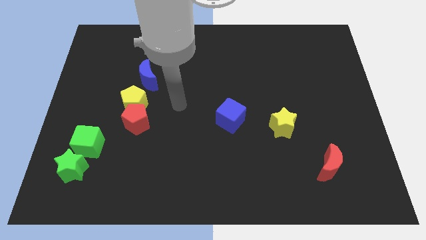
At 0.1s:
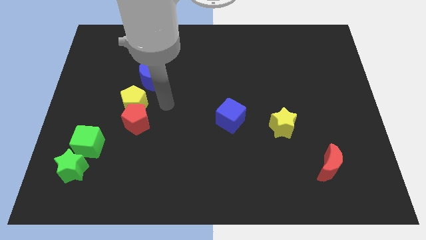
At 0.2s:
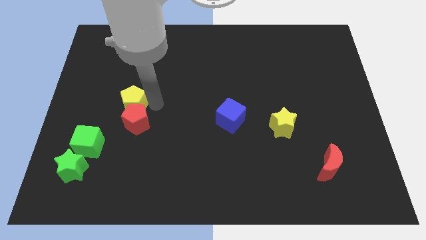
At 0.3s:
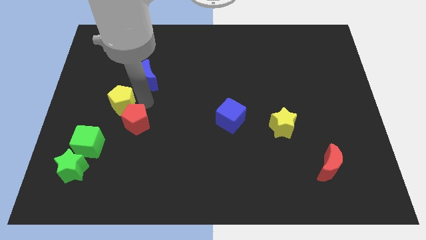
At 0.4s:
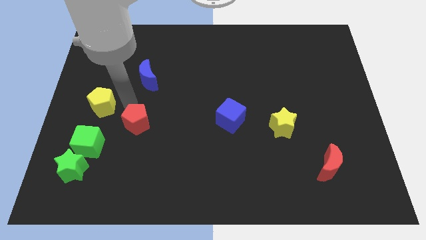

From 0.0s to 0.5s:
separate the red pentagon from the yellow pentagon

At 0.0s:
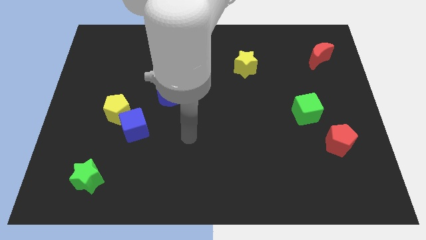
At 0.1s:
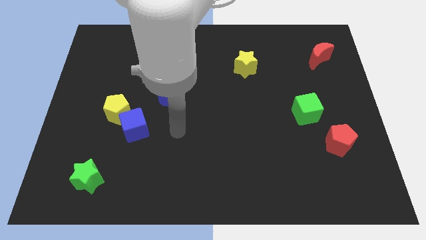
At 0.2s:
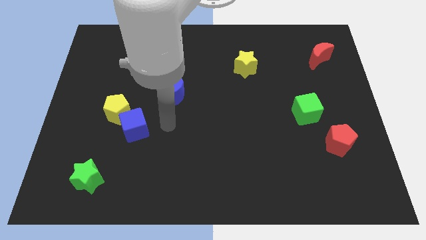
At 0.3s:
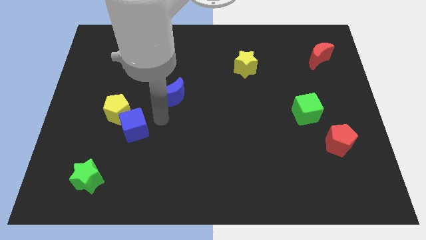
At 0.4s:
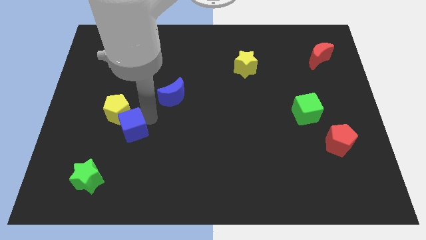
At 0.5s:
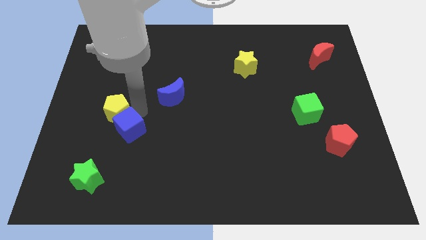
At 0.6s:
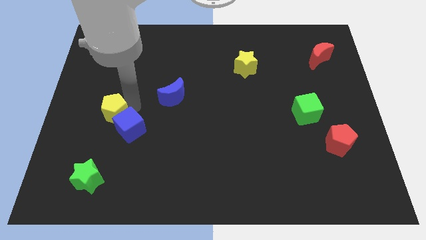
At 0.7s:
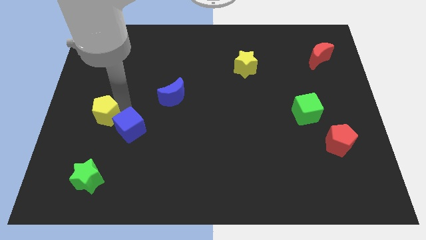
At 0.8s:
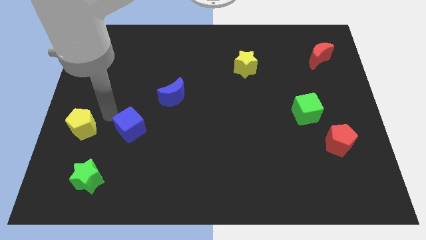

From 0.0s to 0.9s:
move the blue cube away from the yellow pentagon

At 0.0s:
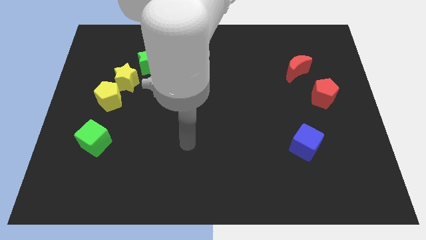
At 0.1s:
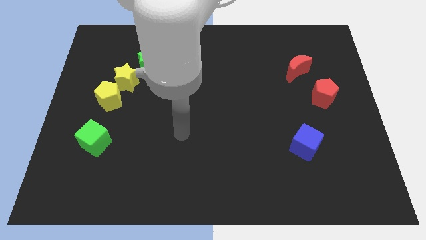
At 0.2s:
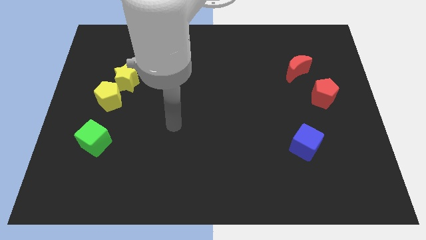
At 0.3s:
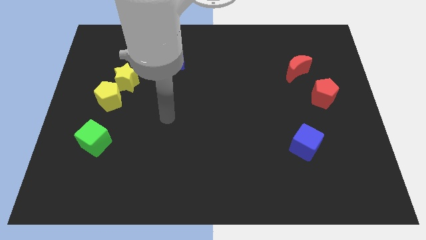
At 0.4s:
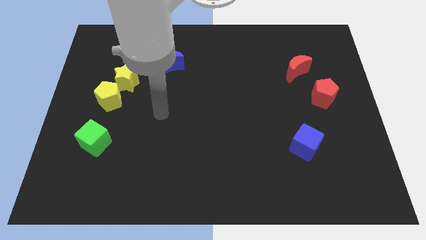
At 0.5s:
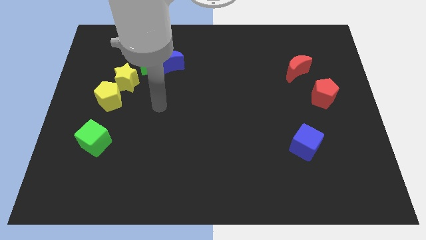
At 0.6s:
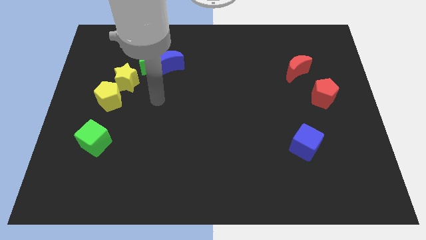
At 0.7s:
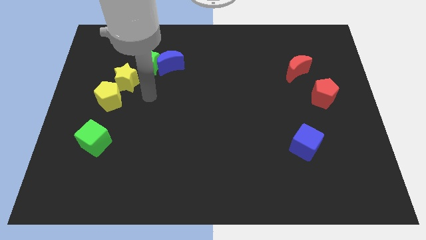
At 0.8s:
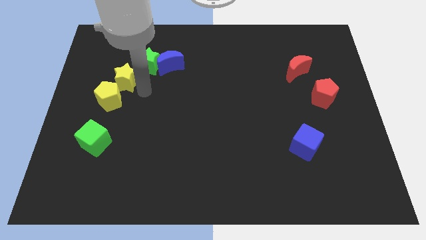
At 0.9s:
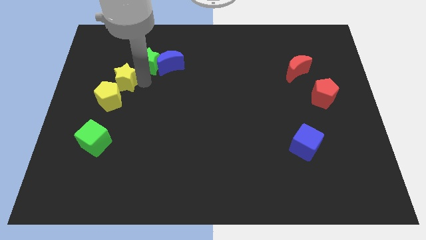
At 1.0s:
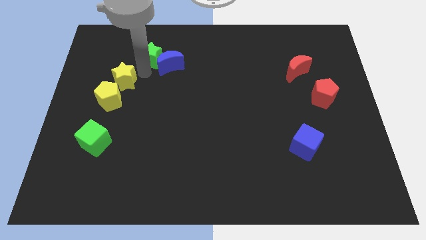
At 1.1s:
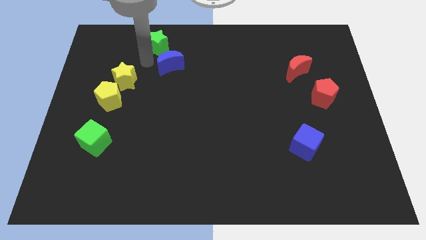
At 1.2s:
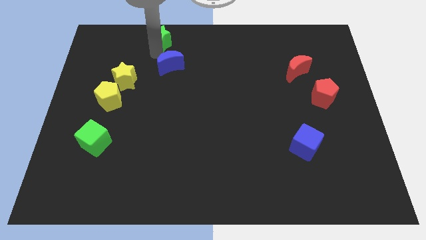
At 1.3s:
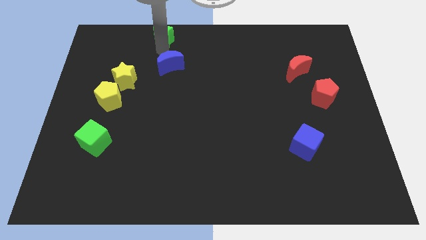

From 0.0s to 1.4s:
separate the blue moon from the green star

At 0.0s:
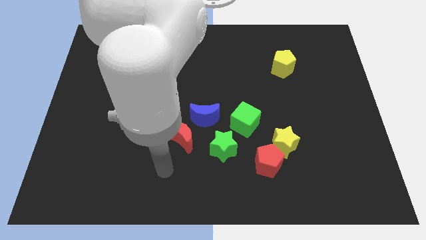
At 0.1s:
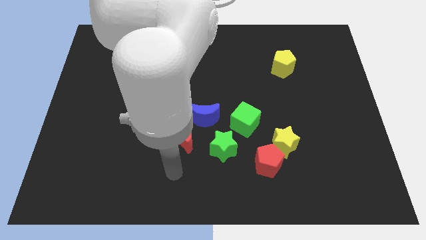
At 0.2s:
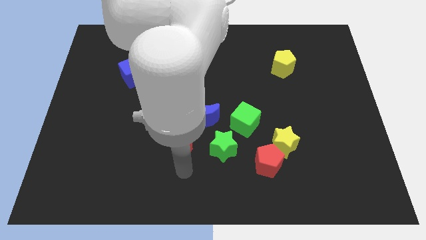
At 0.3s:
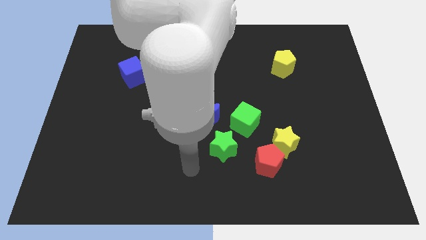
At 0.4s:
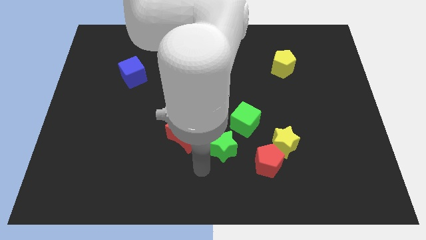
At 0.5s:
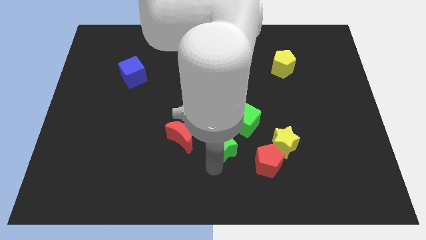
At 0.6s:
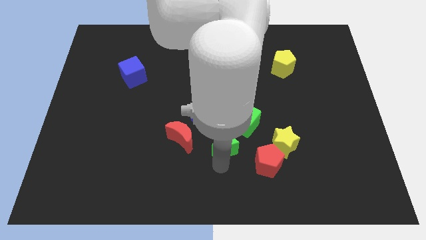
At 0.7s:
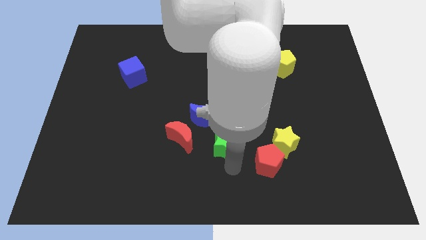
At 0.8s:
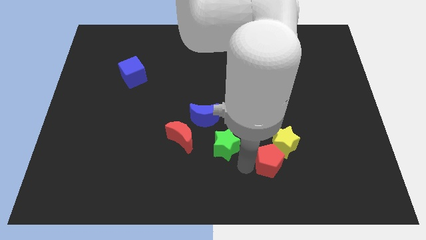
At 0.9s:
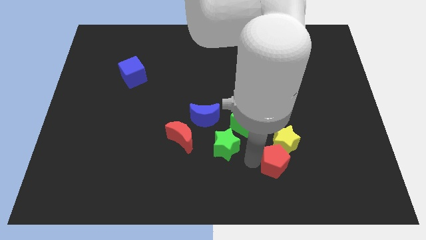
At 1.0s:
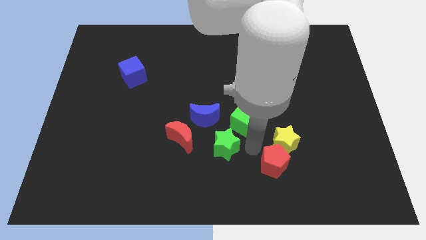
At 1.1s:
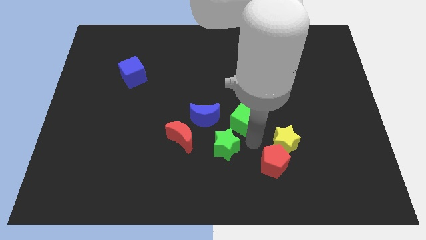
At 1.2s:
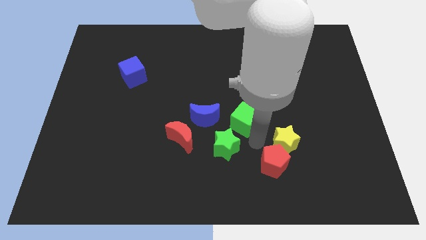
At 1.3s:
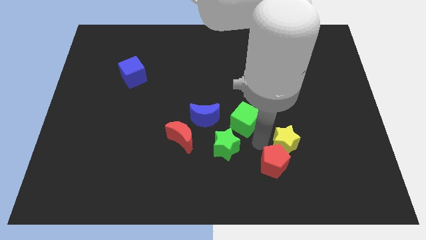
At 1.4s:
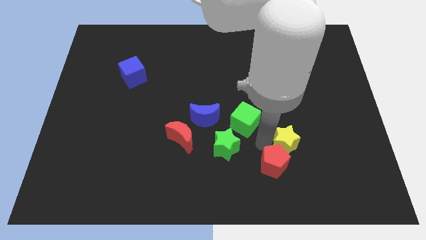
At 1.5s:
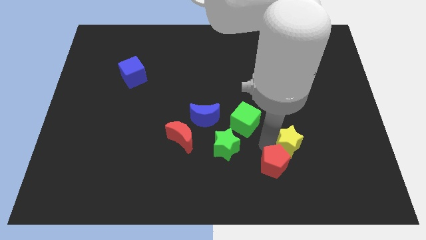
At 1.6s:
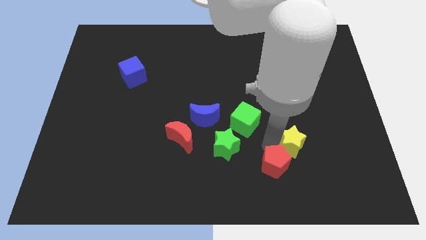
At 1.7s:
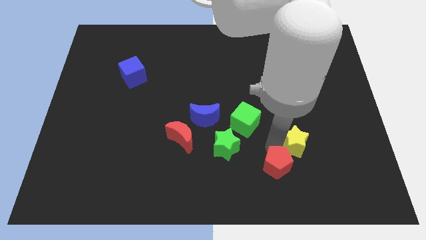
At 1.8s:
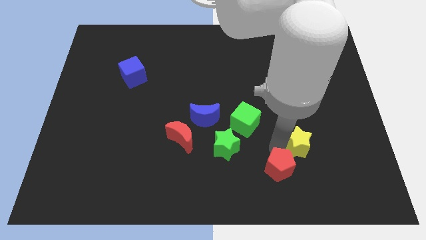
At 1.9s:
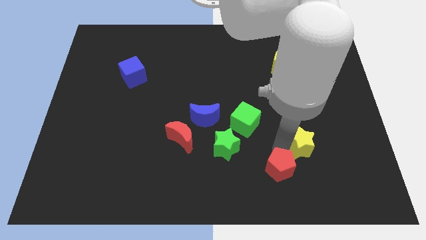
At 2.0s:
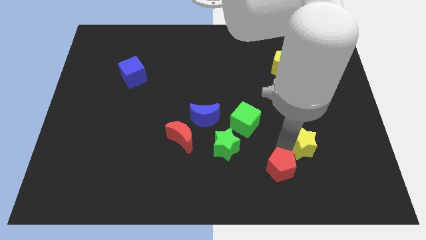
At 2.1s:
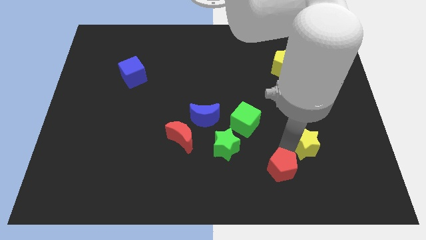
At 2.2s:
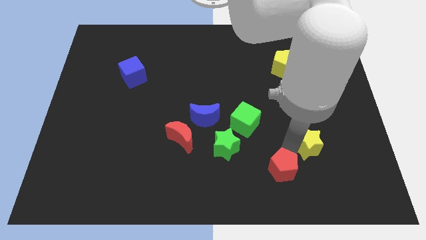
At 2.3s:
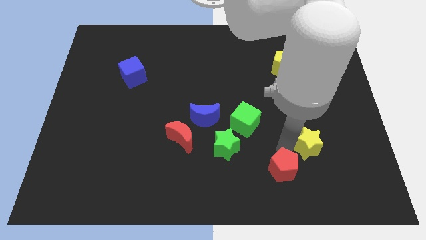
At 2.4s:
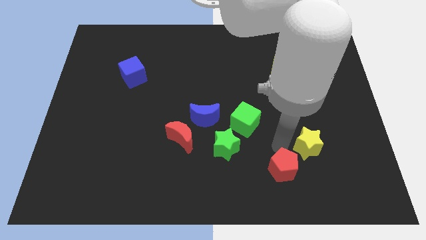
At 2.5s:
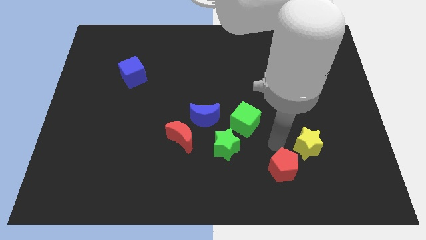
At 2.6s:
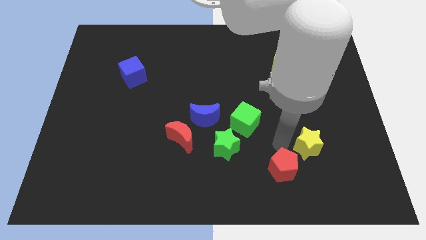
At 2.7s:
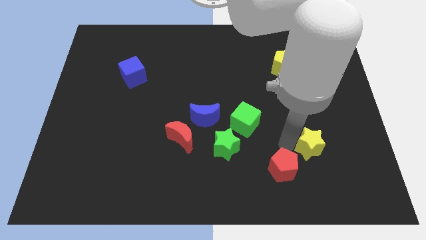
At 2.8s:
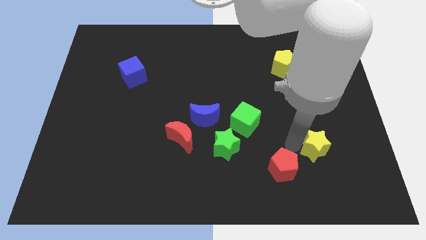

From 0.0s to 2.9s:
move the yellow star away from the red pentagon and green cube

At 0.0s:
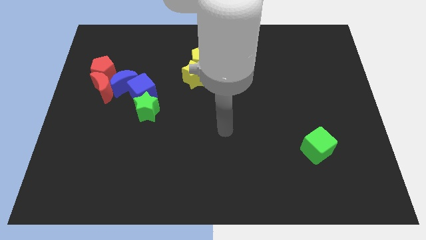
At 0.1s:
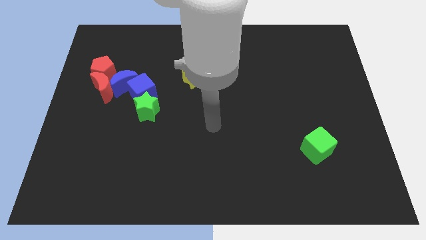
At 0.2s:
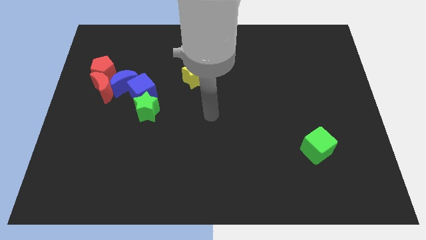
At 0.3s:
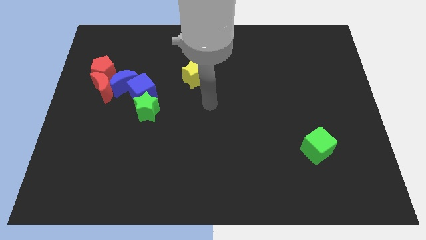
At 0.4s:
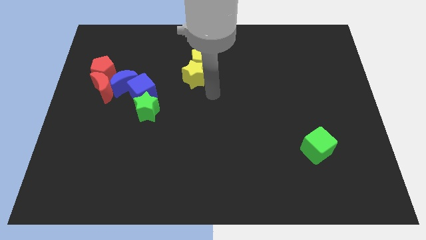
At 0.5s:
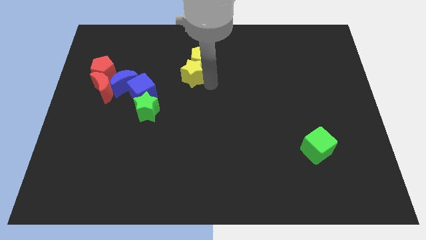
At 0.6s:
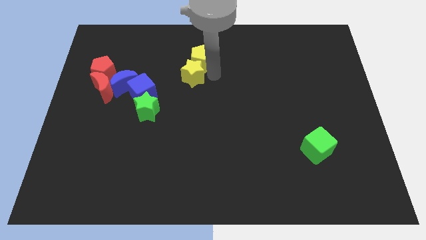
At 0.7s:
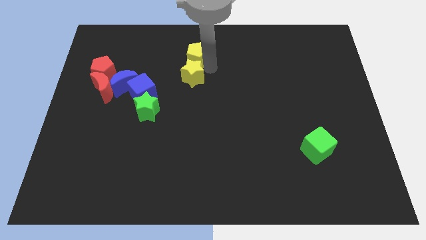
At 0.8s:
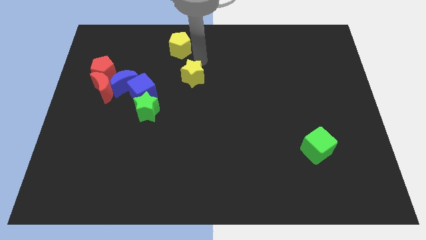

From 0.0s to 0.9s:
separate the yellow star from the yellow pentagon

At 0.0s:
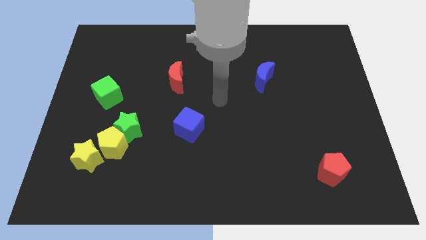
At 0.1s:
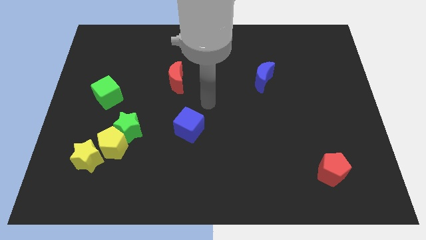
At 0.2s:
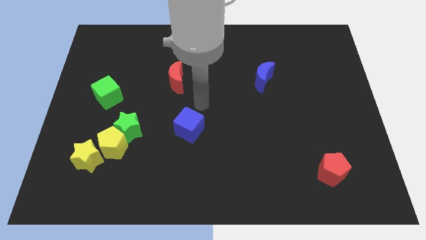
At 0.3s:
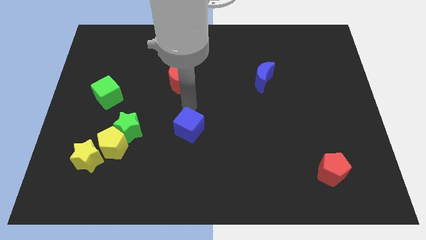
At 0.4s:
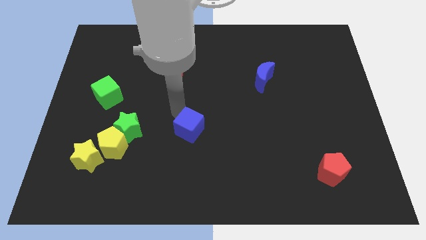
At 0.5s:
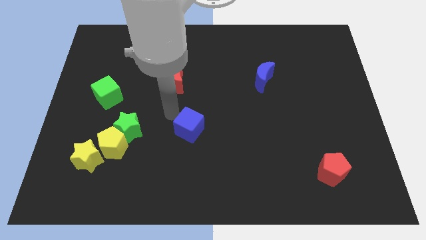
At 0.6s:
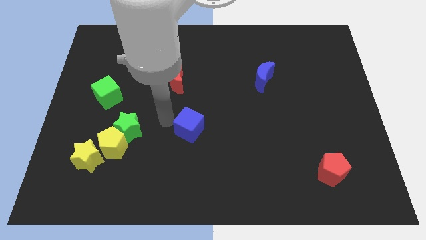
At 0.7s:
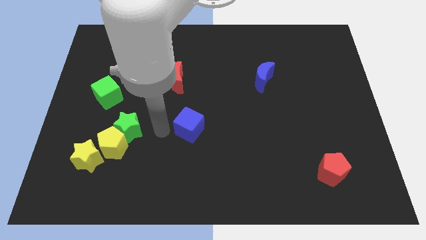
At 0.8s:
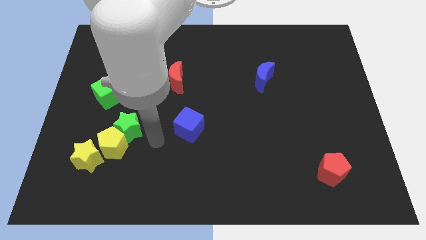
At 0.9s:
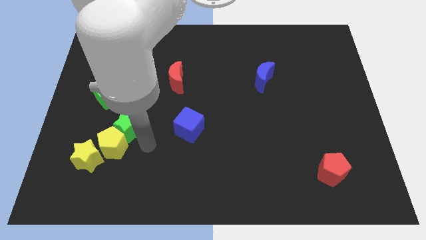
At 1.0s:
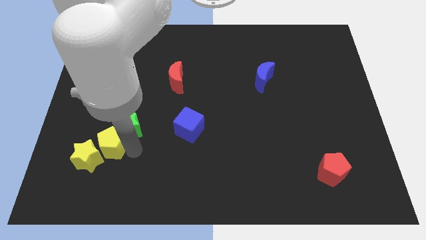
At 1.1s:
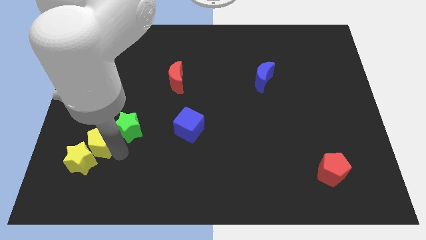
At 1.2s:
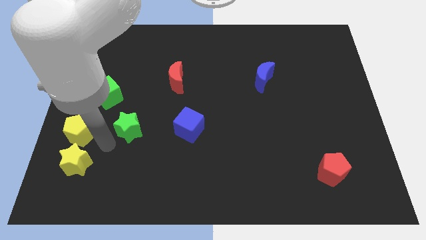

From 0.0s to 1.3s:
move the green star away from the yellow pentagon

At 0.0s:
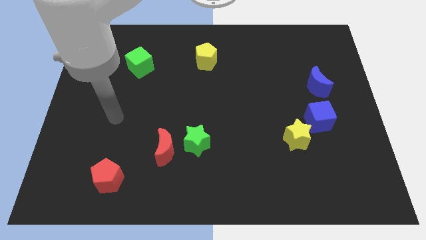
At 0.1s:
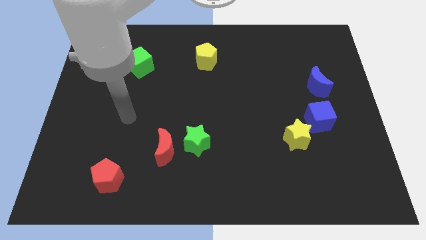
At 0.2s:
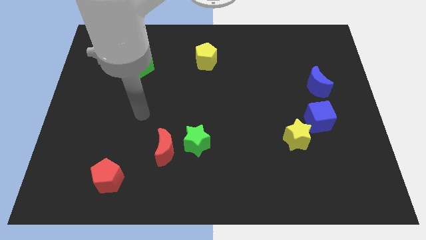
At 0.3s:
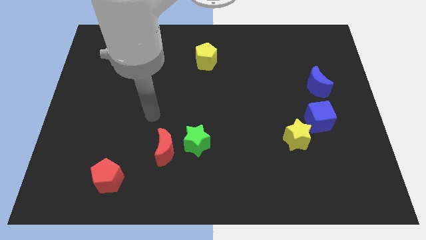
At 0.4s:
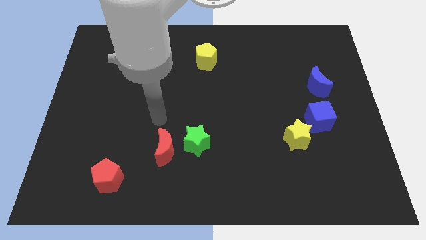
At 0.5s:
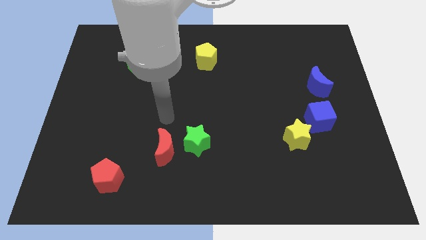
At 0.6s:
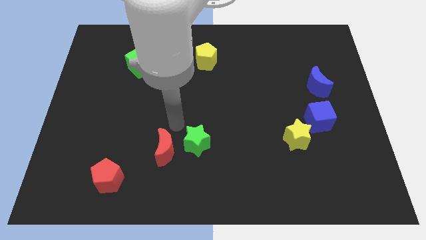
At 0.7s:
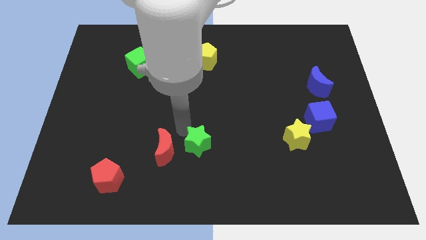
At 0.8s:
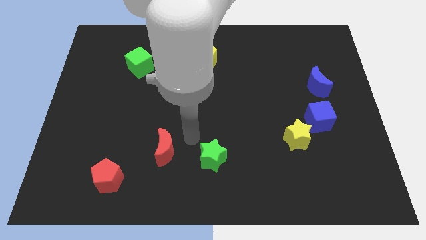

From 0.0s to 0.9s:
pull the red moon apart from the green star

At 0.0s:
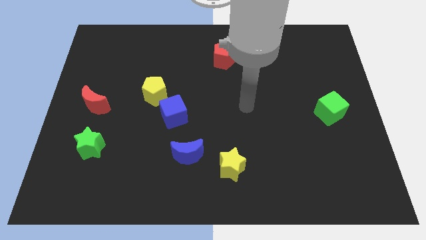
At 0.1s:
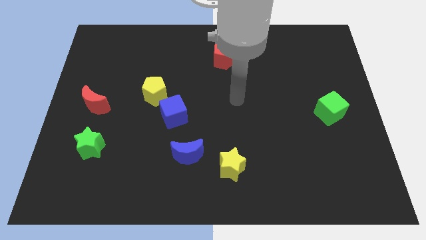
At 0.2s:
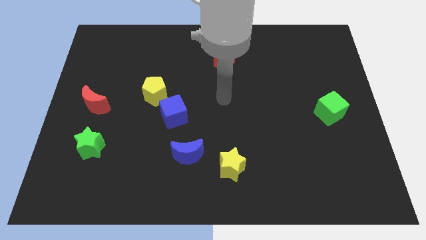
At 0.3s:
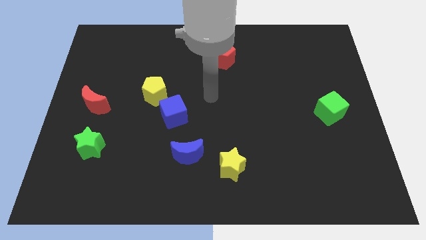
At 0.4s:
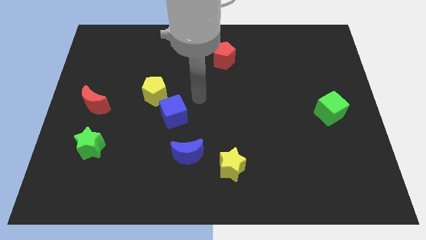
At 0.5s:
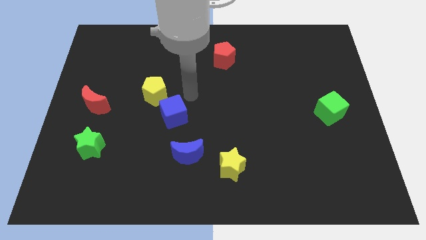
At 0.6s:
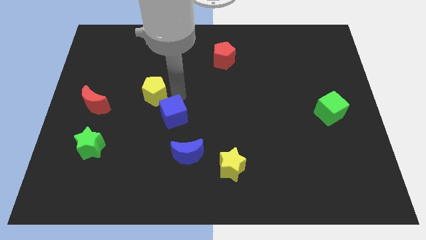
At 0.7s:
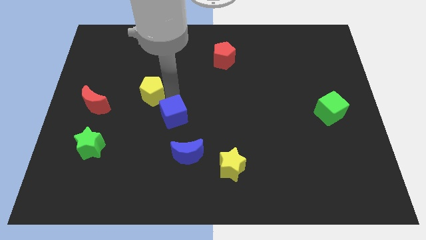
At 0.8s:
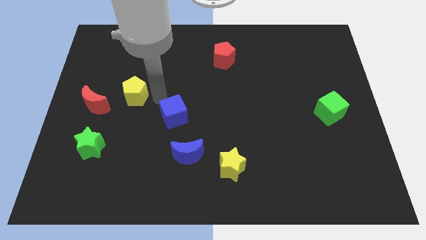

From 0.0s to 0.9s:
separate the blue cube from the yellow pentagon
